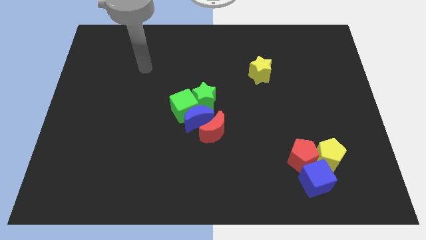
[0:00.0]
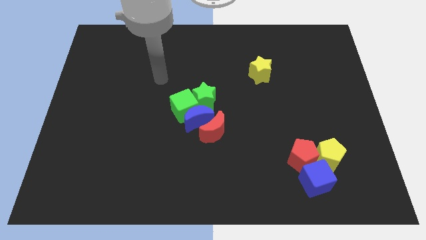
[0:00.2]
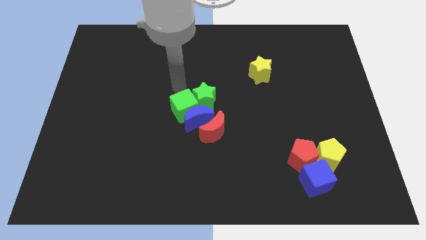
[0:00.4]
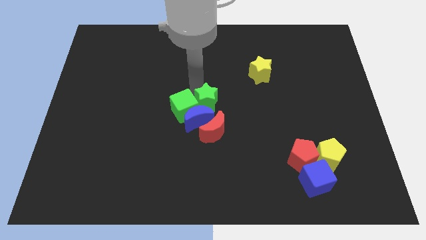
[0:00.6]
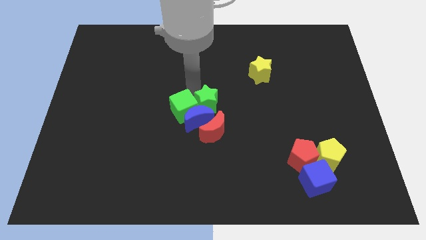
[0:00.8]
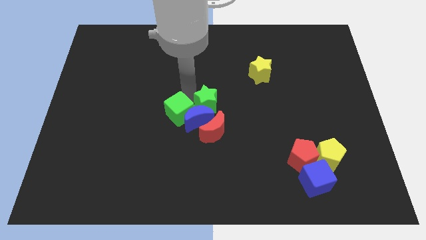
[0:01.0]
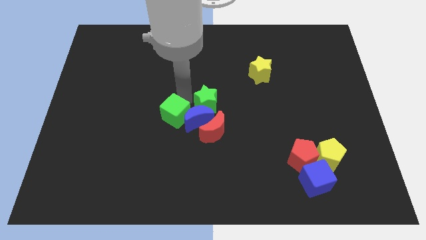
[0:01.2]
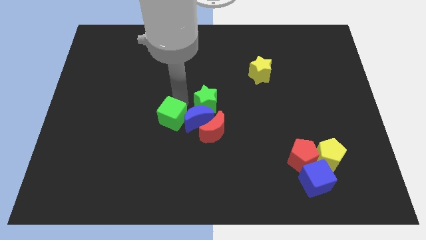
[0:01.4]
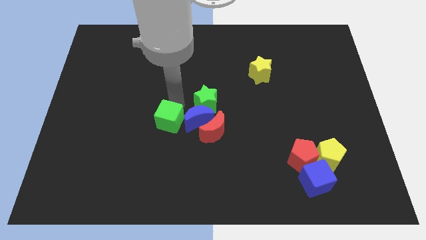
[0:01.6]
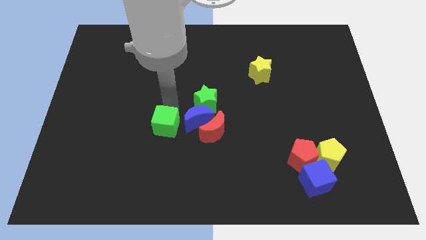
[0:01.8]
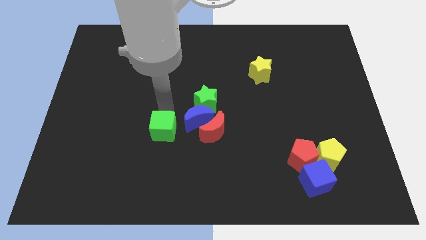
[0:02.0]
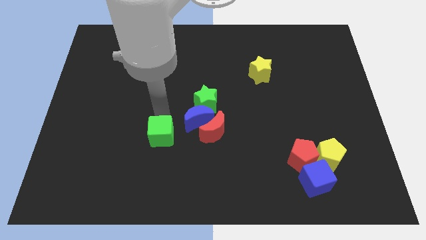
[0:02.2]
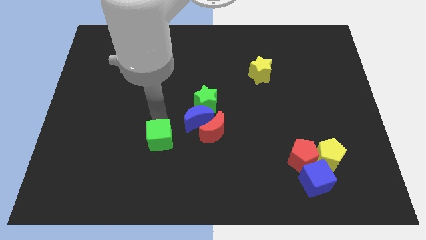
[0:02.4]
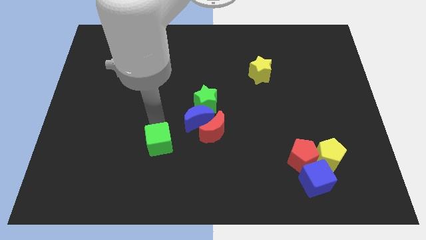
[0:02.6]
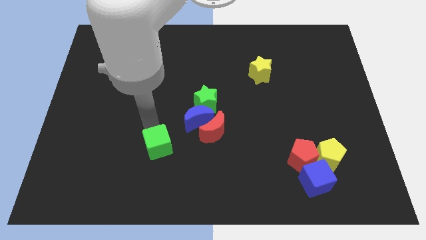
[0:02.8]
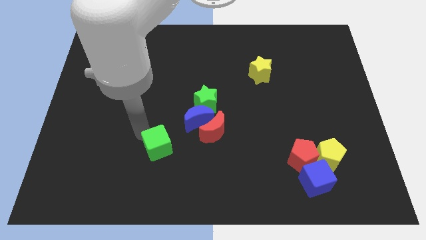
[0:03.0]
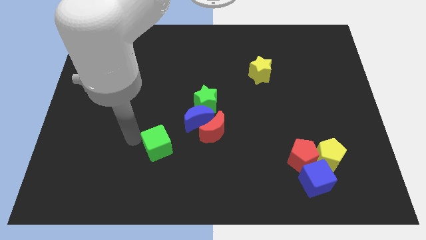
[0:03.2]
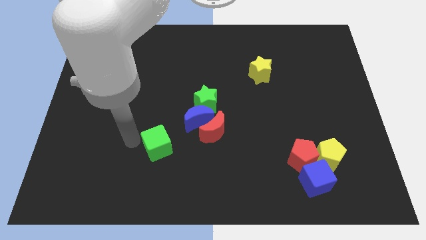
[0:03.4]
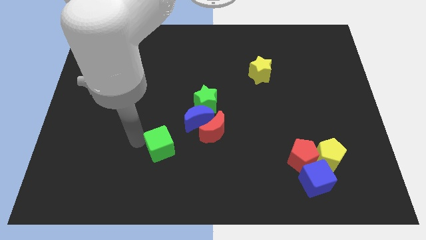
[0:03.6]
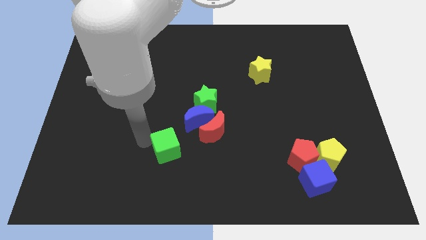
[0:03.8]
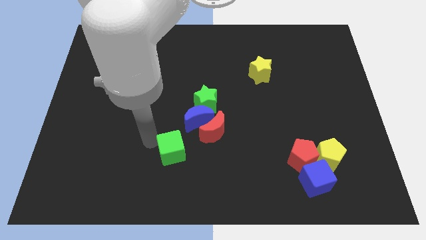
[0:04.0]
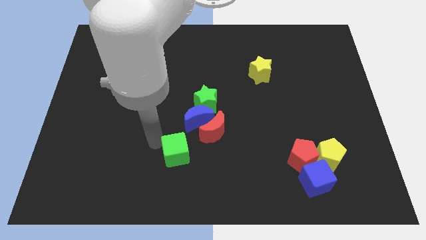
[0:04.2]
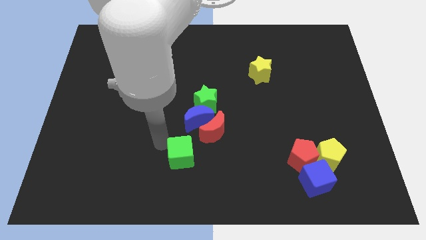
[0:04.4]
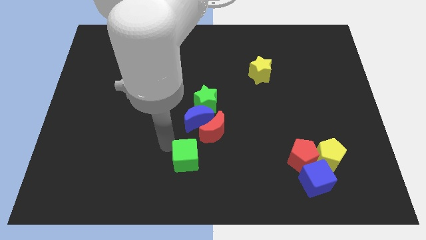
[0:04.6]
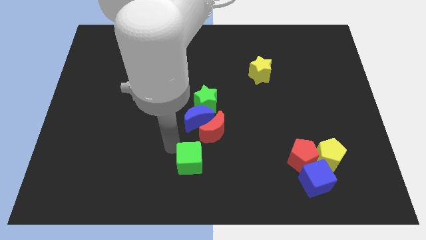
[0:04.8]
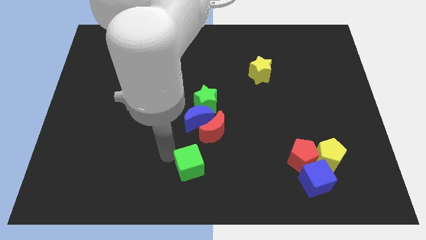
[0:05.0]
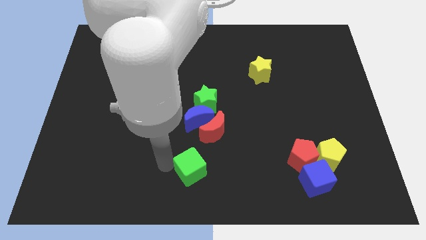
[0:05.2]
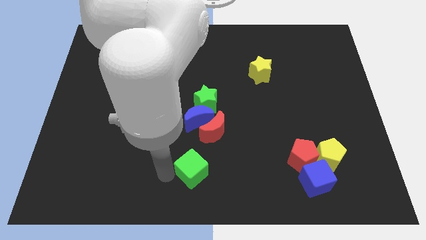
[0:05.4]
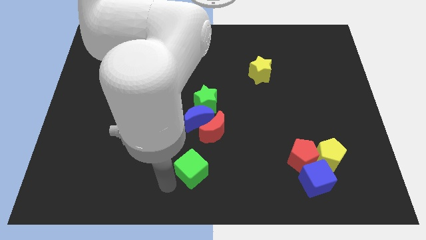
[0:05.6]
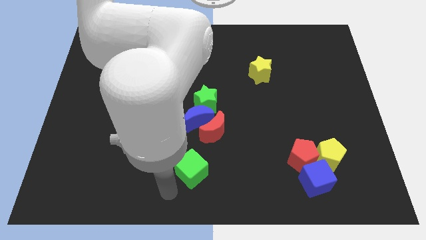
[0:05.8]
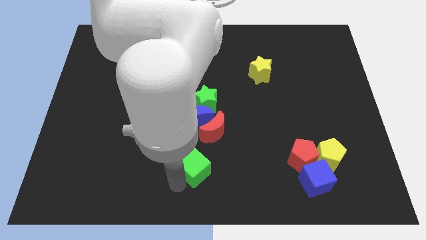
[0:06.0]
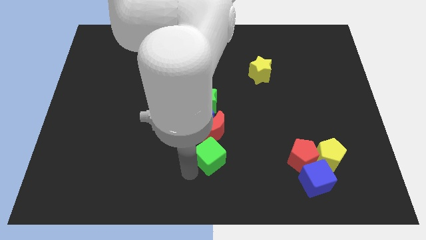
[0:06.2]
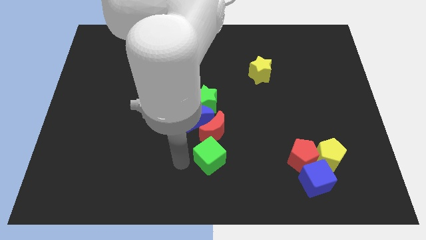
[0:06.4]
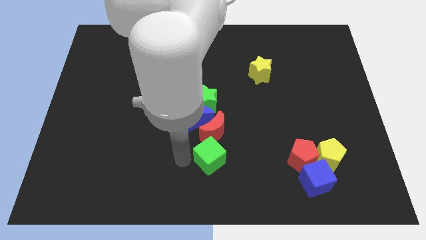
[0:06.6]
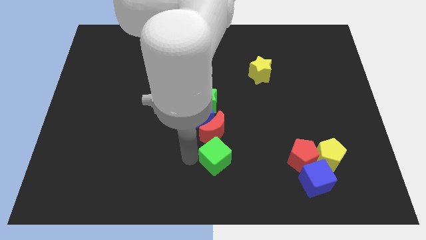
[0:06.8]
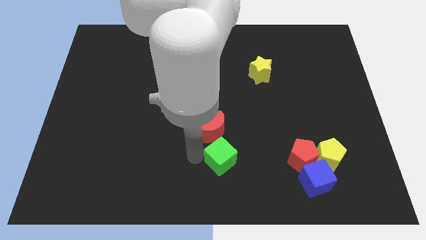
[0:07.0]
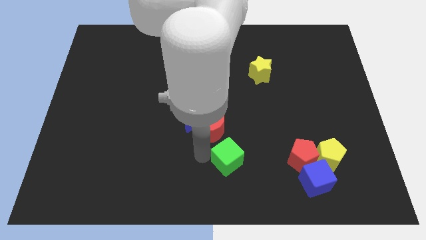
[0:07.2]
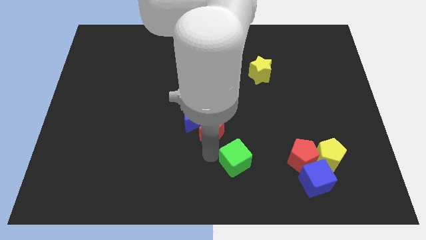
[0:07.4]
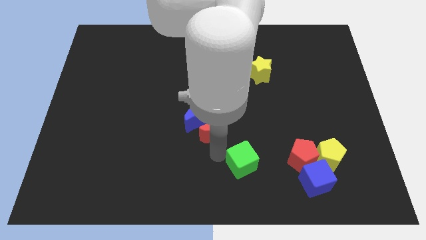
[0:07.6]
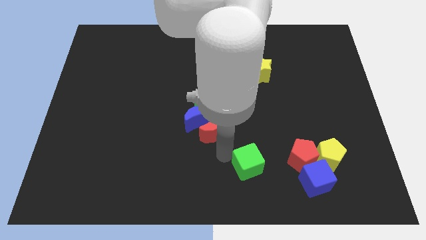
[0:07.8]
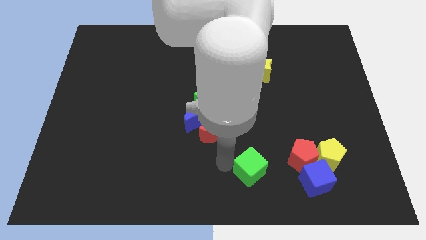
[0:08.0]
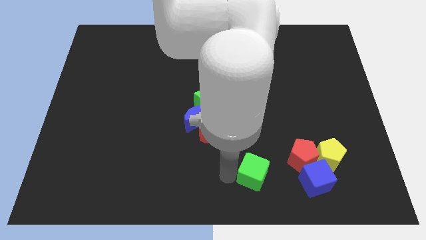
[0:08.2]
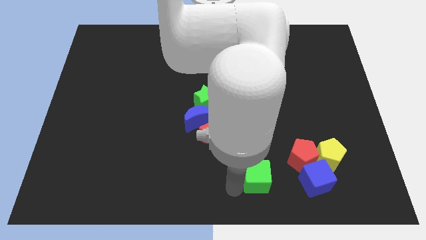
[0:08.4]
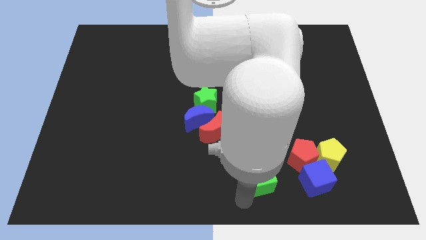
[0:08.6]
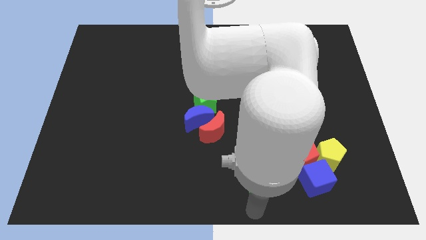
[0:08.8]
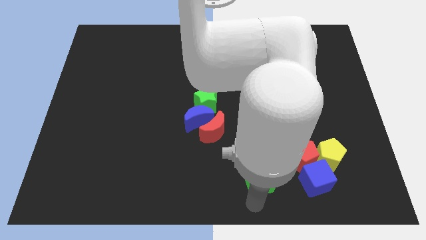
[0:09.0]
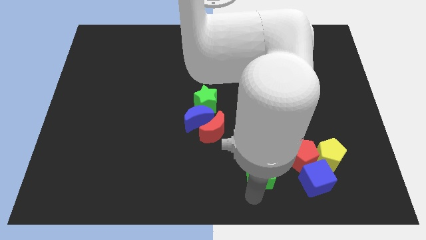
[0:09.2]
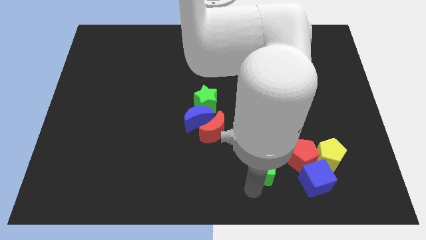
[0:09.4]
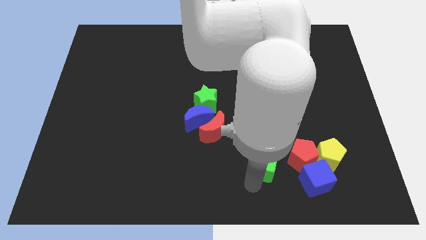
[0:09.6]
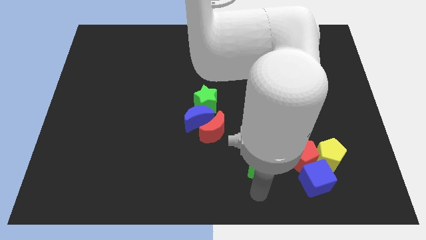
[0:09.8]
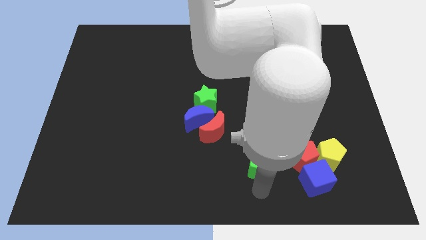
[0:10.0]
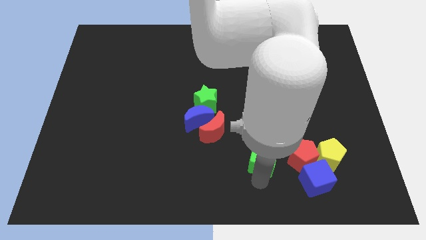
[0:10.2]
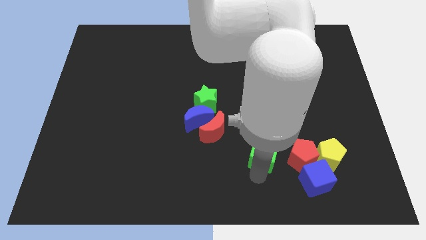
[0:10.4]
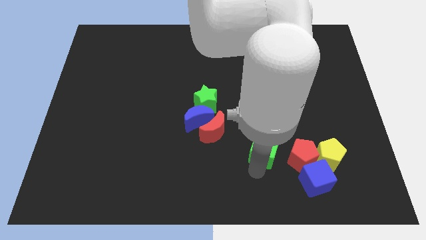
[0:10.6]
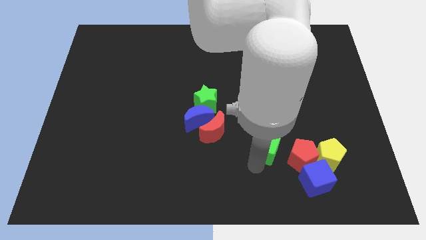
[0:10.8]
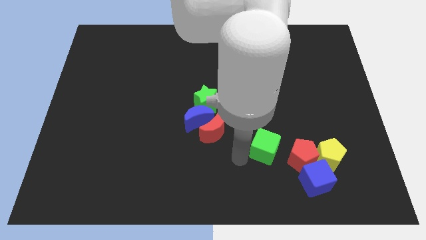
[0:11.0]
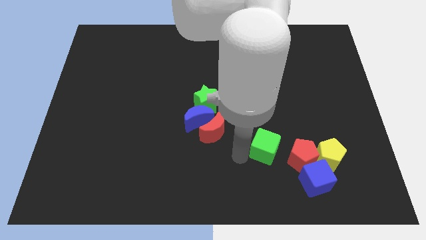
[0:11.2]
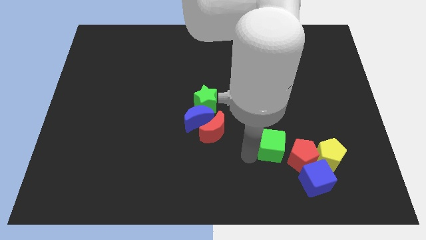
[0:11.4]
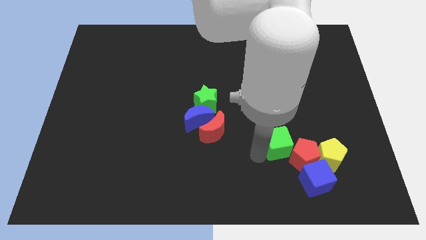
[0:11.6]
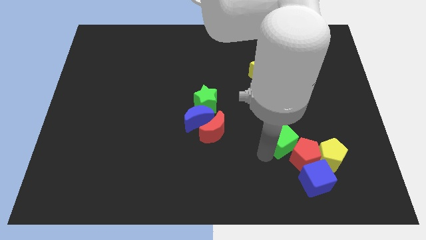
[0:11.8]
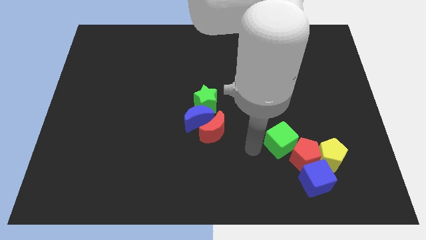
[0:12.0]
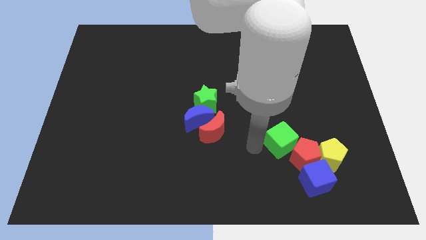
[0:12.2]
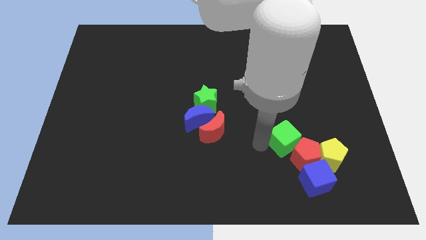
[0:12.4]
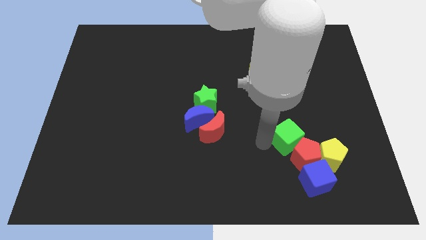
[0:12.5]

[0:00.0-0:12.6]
slide the green cube to the top side of the blue cube

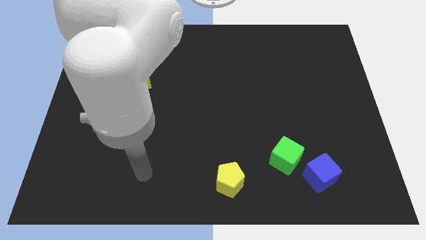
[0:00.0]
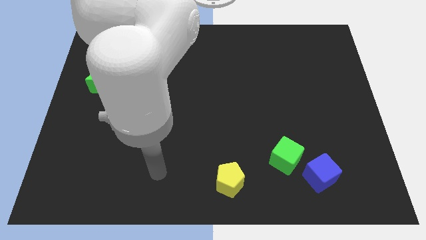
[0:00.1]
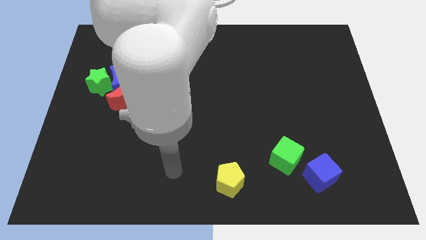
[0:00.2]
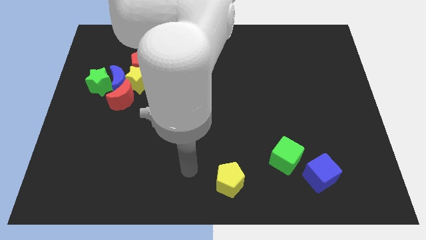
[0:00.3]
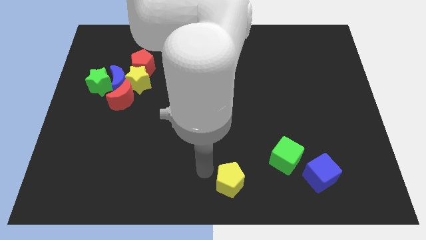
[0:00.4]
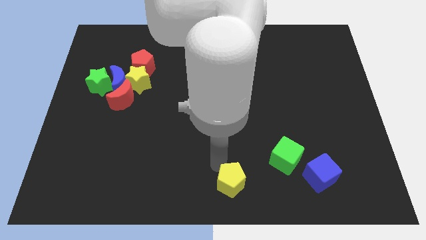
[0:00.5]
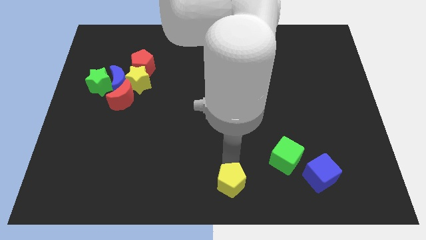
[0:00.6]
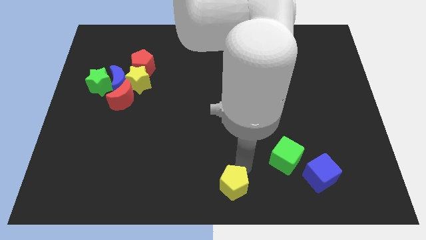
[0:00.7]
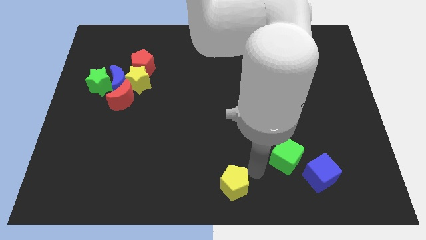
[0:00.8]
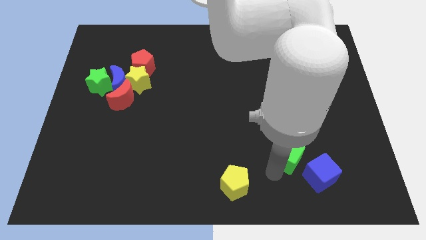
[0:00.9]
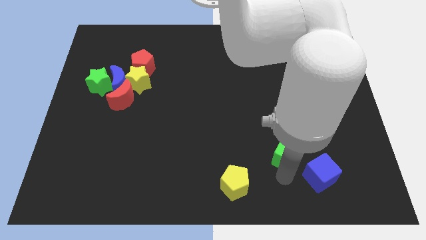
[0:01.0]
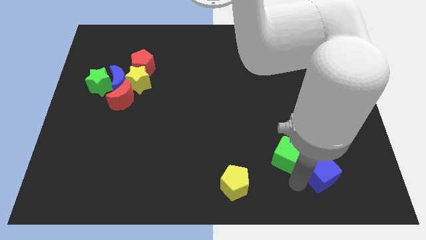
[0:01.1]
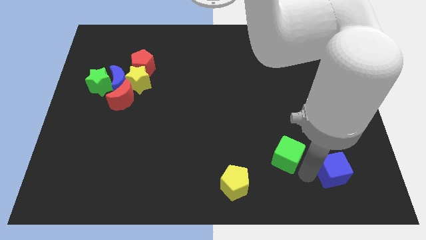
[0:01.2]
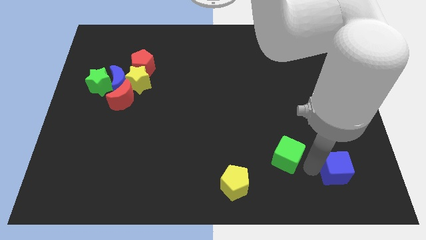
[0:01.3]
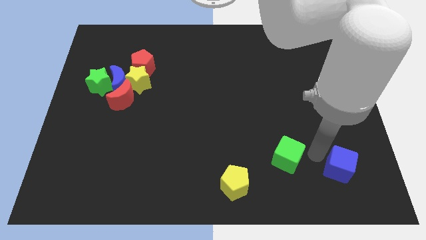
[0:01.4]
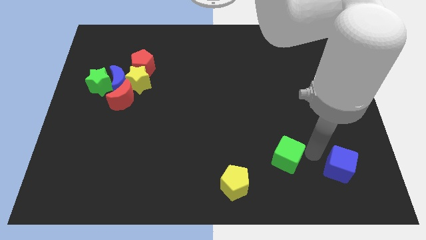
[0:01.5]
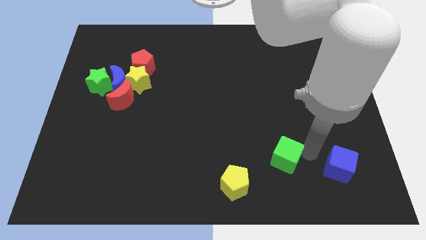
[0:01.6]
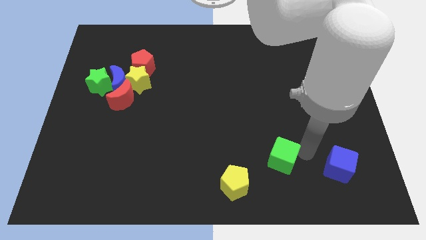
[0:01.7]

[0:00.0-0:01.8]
move the green cube to the top right side of the yellow pentagon
